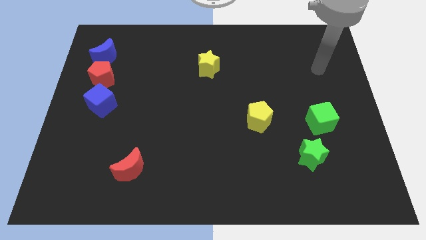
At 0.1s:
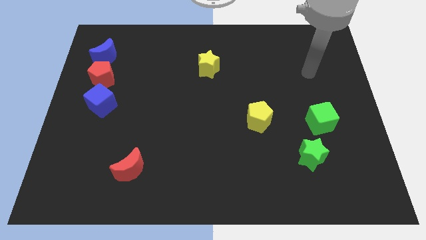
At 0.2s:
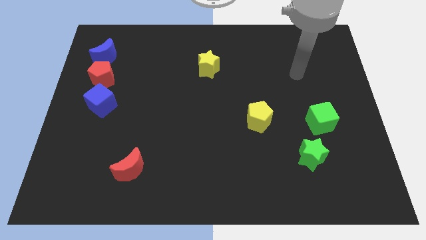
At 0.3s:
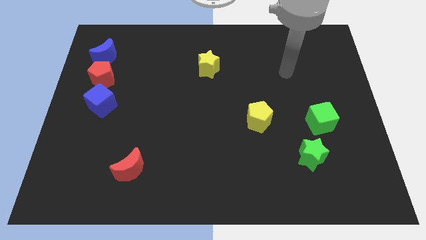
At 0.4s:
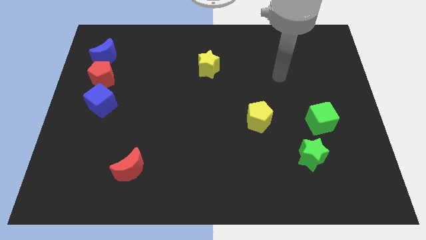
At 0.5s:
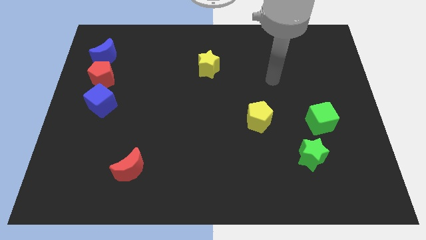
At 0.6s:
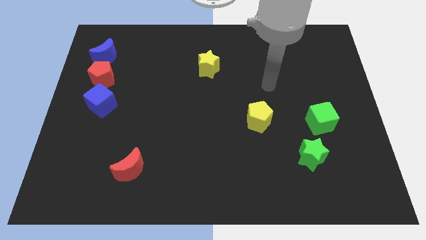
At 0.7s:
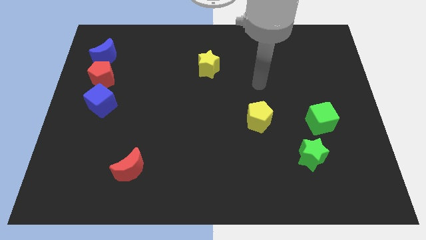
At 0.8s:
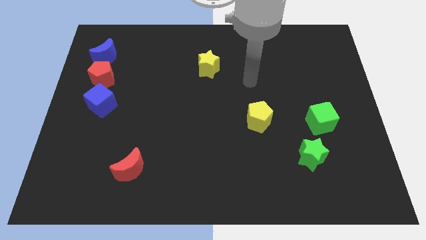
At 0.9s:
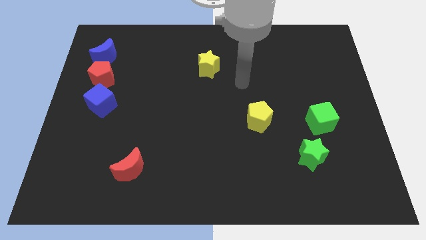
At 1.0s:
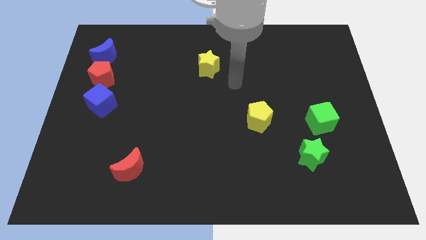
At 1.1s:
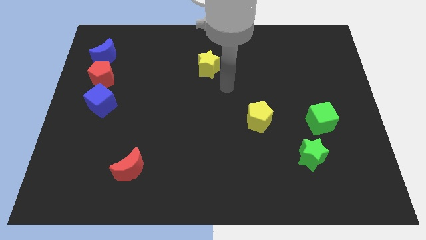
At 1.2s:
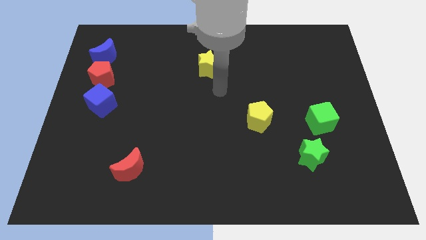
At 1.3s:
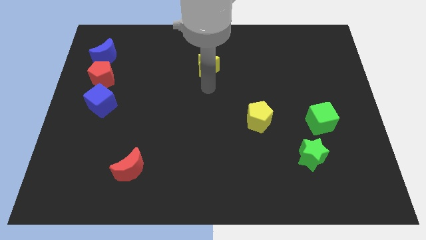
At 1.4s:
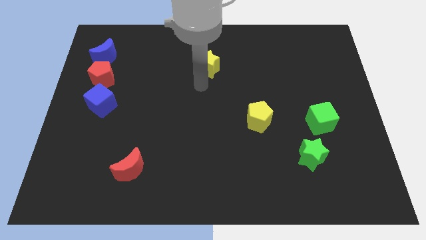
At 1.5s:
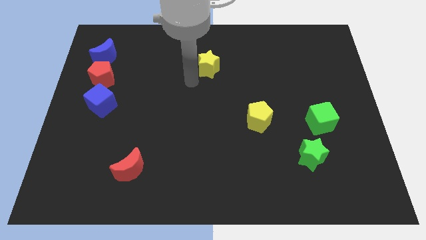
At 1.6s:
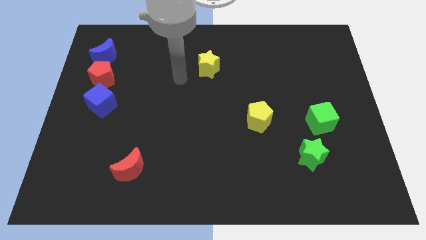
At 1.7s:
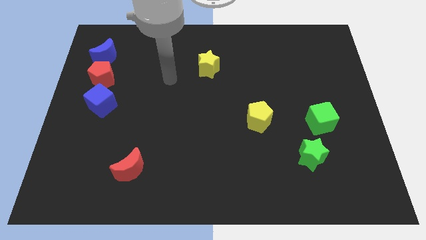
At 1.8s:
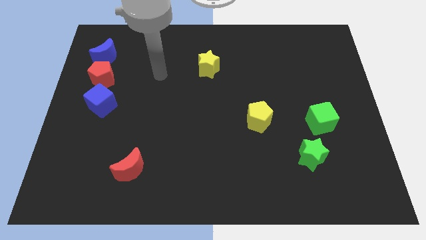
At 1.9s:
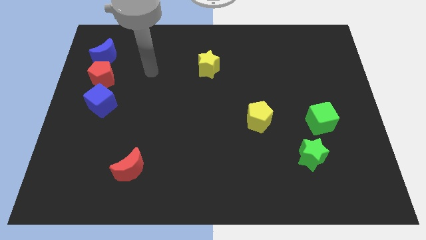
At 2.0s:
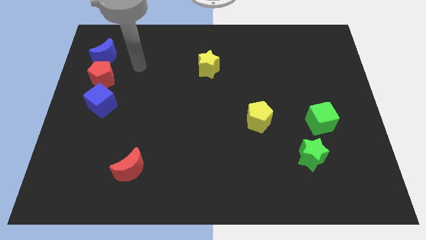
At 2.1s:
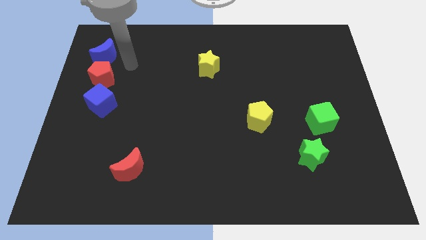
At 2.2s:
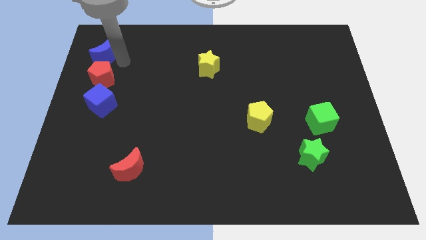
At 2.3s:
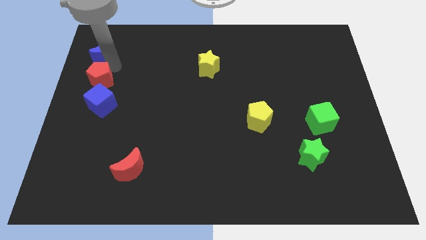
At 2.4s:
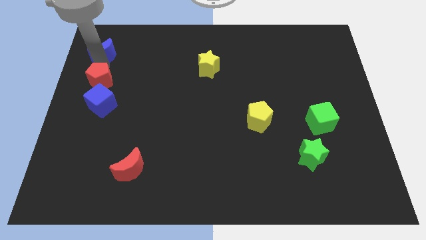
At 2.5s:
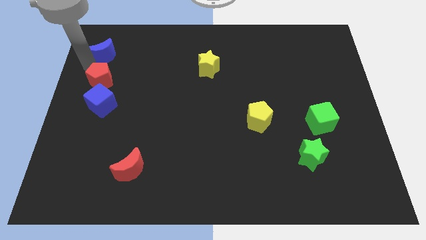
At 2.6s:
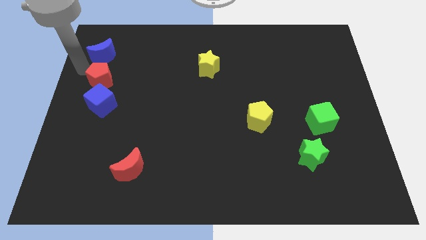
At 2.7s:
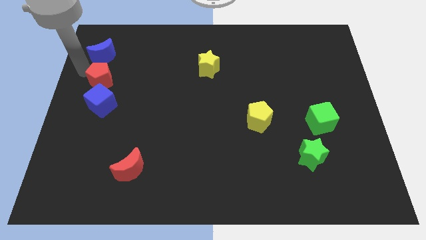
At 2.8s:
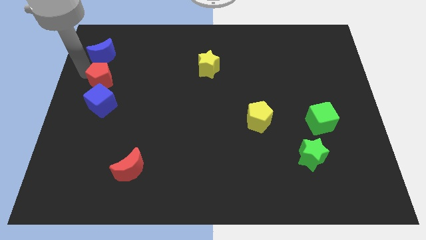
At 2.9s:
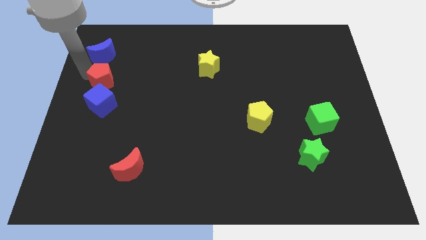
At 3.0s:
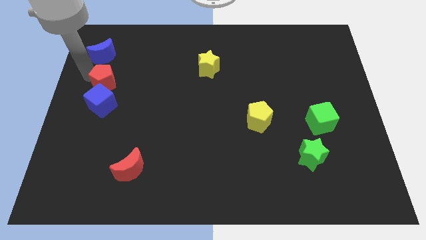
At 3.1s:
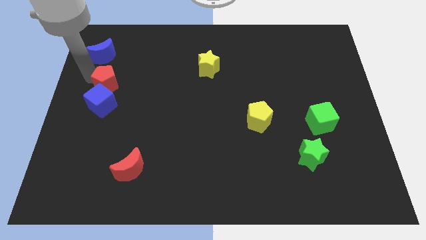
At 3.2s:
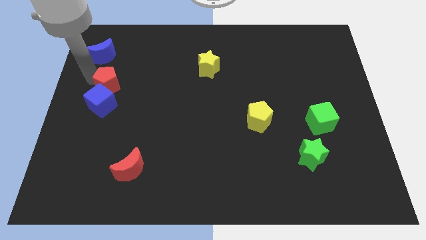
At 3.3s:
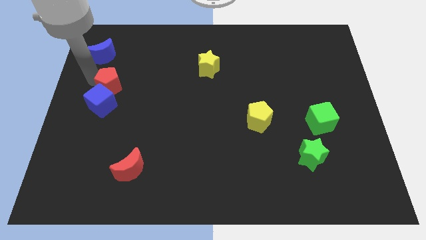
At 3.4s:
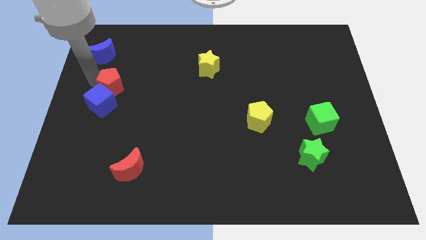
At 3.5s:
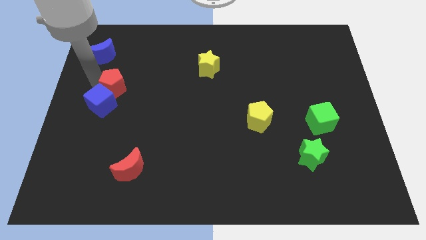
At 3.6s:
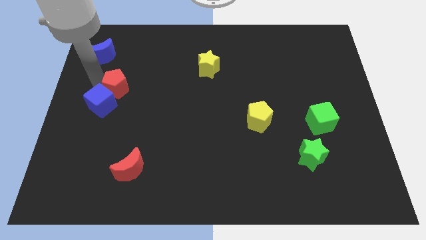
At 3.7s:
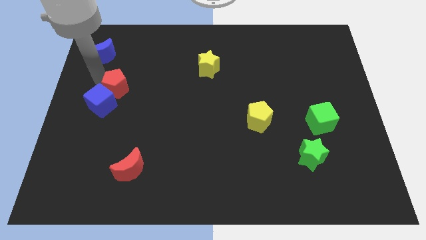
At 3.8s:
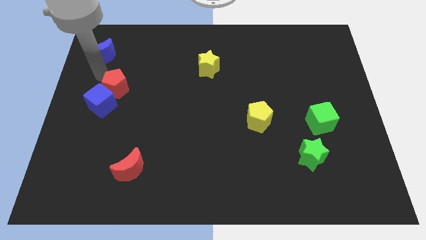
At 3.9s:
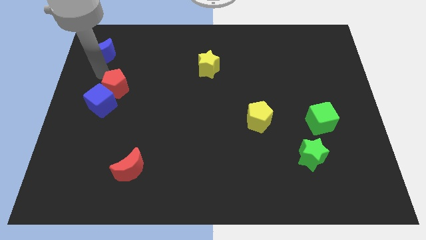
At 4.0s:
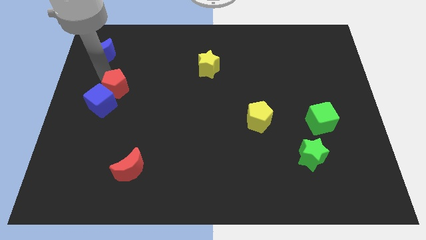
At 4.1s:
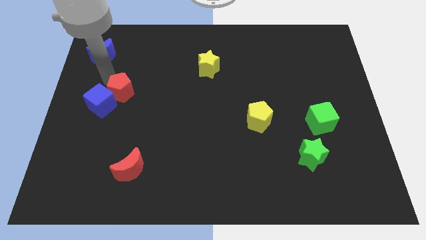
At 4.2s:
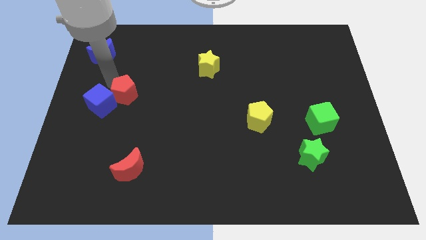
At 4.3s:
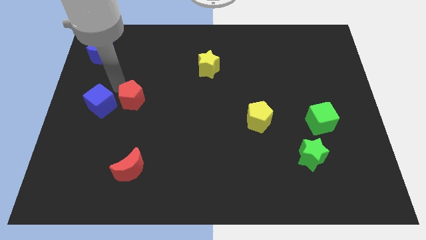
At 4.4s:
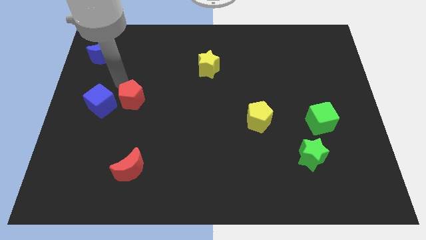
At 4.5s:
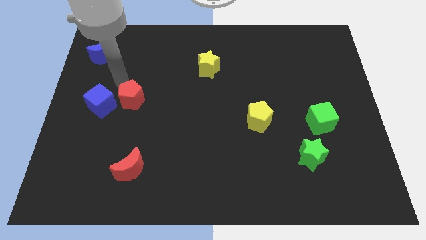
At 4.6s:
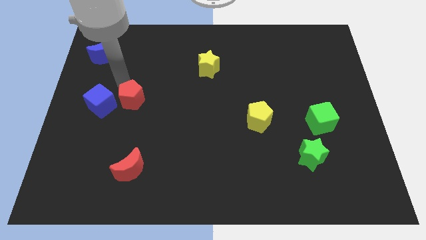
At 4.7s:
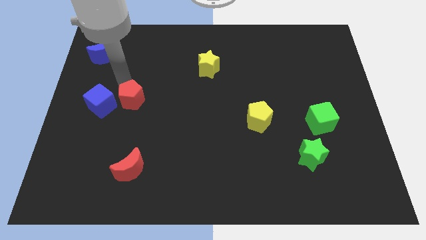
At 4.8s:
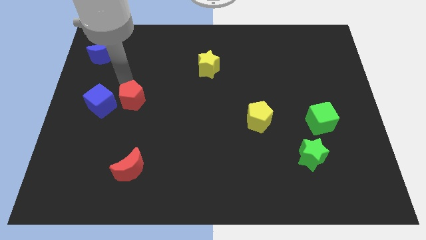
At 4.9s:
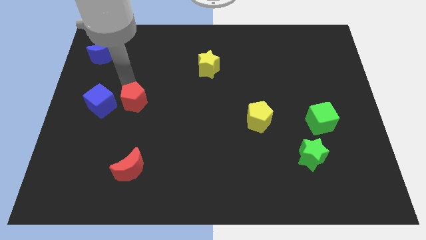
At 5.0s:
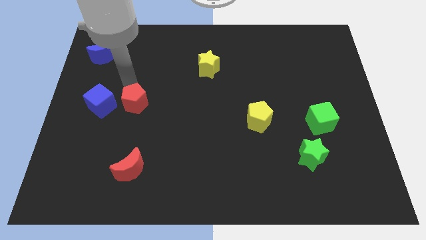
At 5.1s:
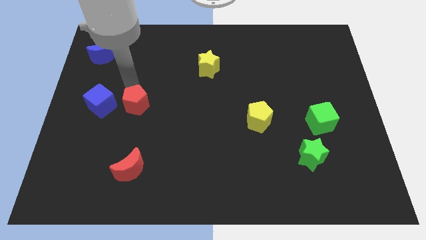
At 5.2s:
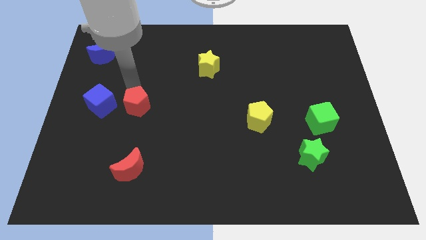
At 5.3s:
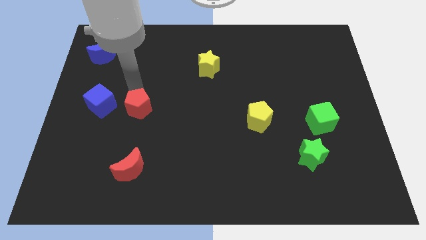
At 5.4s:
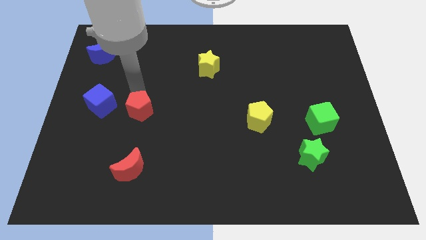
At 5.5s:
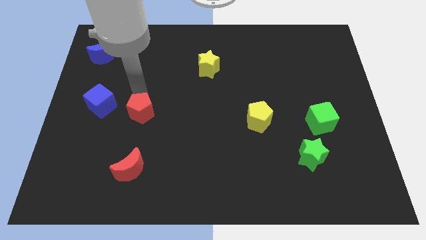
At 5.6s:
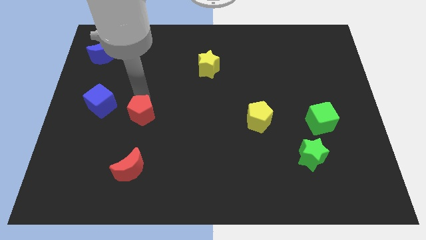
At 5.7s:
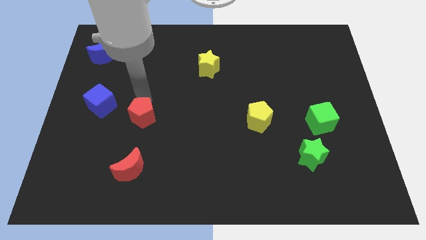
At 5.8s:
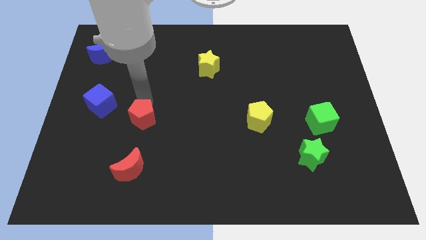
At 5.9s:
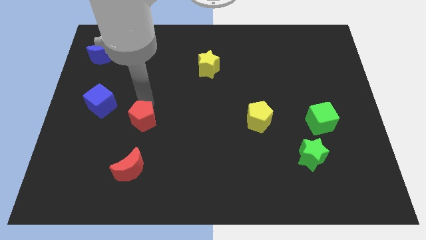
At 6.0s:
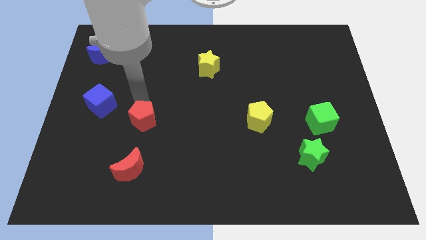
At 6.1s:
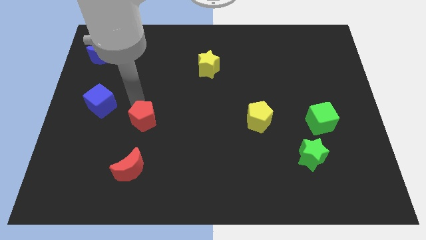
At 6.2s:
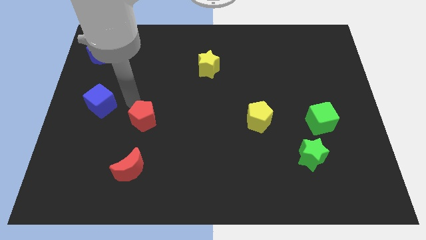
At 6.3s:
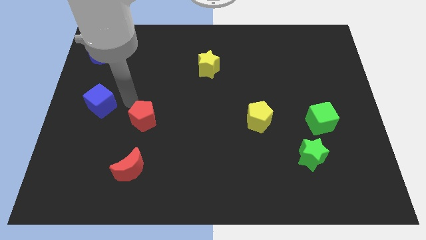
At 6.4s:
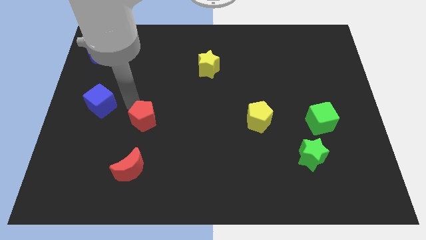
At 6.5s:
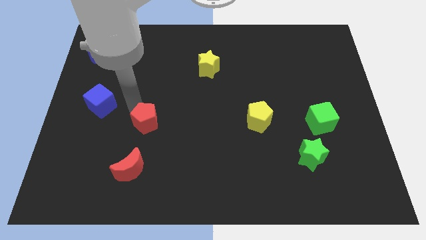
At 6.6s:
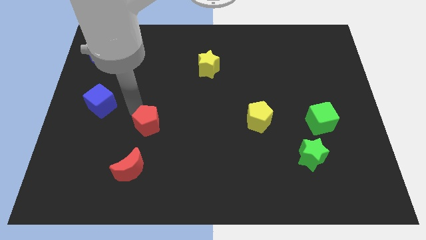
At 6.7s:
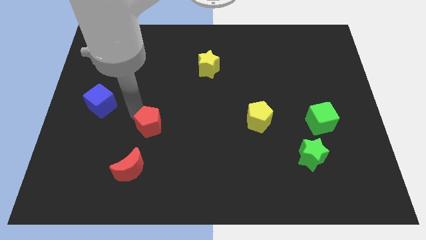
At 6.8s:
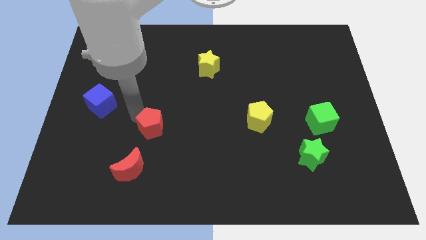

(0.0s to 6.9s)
push the red pentagon downwards and to the right diagonally

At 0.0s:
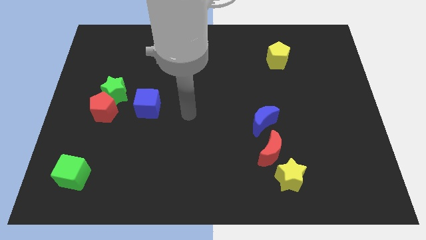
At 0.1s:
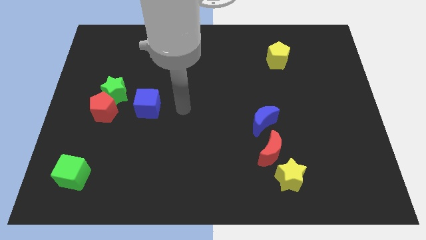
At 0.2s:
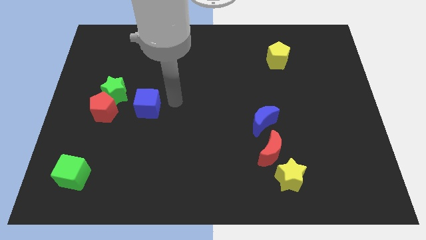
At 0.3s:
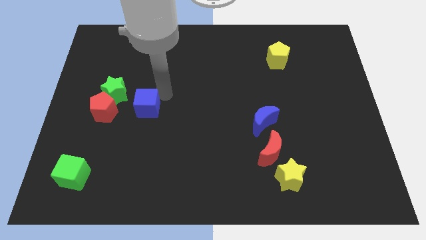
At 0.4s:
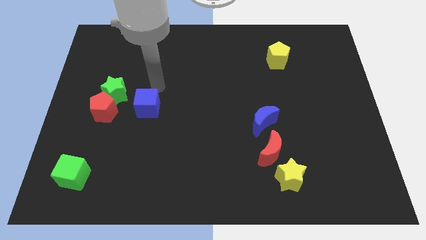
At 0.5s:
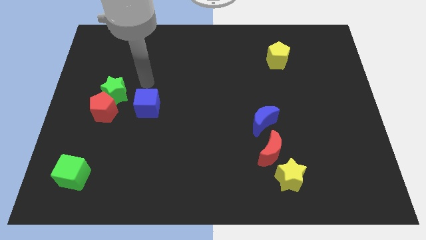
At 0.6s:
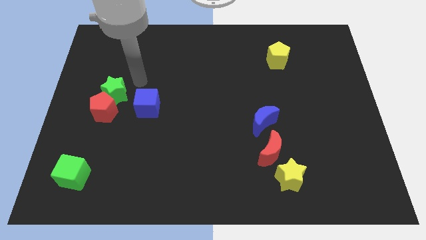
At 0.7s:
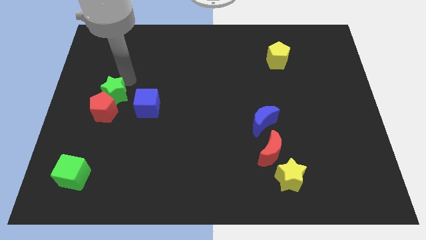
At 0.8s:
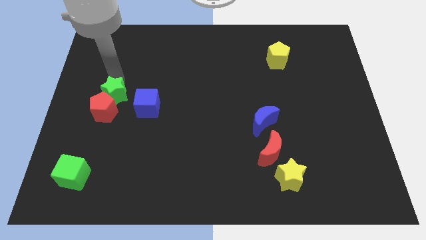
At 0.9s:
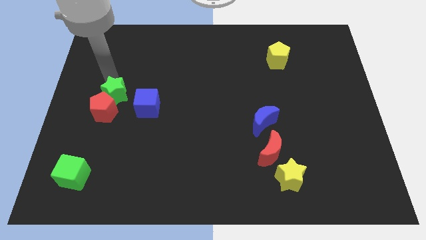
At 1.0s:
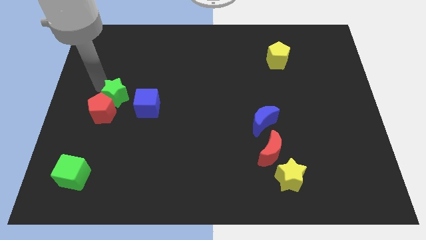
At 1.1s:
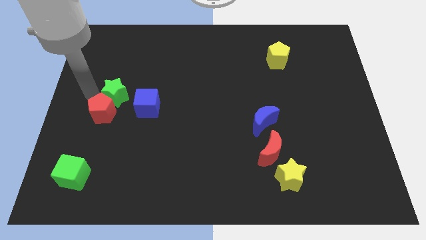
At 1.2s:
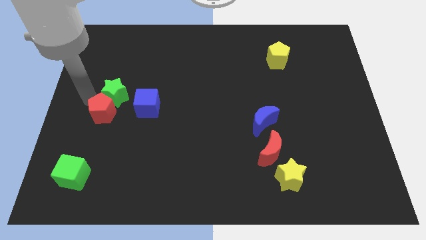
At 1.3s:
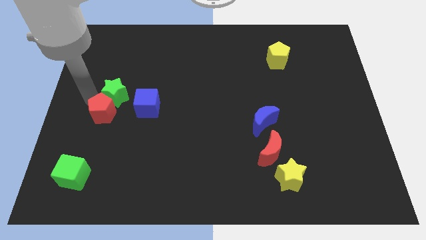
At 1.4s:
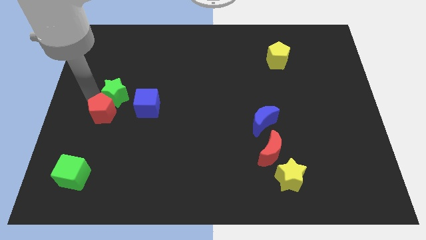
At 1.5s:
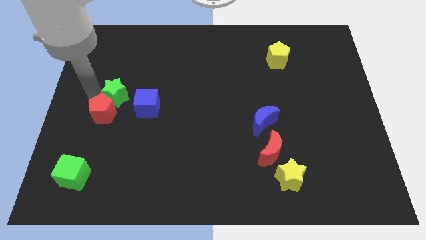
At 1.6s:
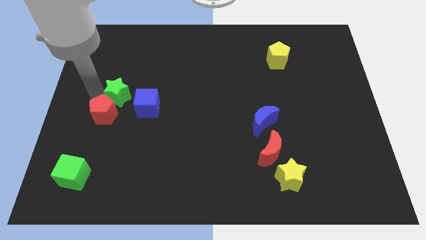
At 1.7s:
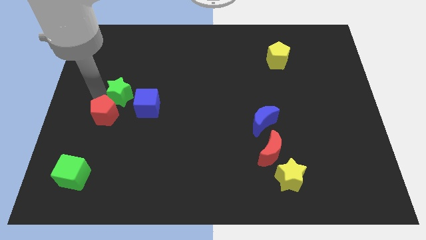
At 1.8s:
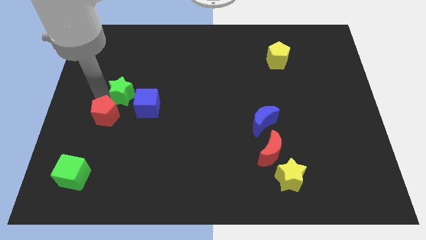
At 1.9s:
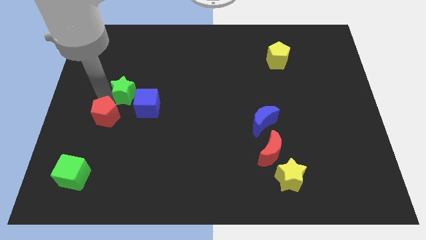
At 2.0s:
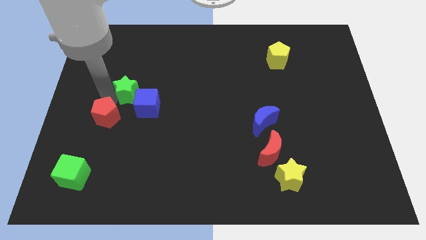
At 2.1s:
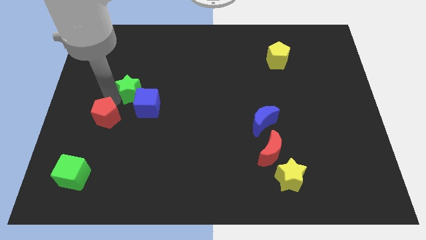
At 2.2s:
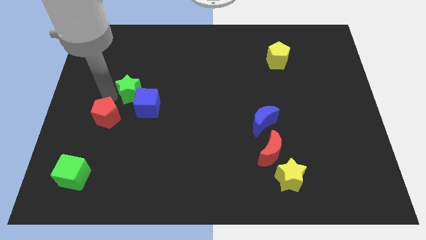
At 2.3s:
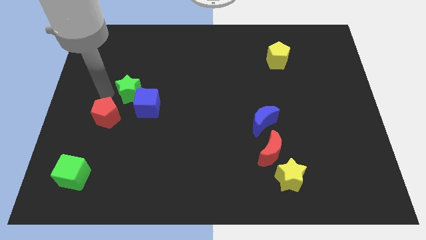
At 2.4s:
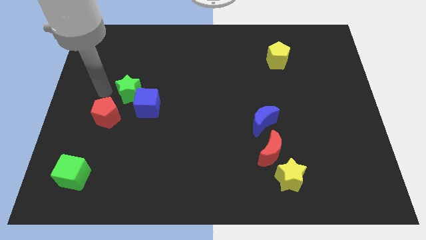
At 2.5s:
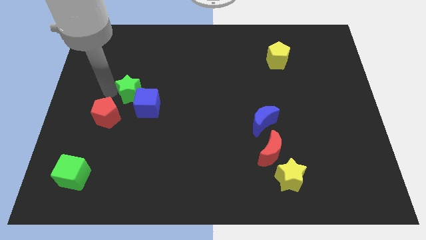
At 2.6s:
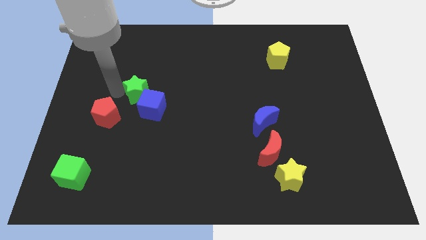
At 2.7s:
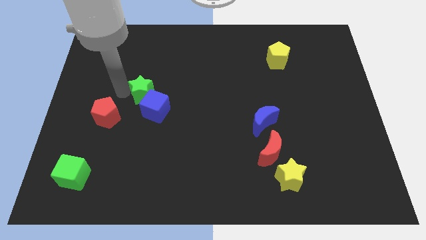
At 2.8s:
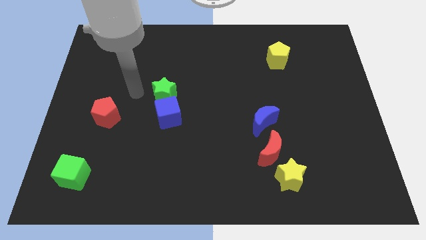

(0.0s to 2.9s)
slightly push the green star to the right
